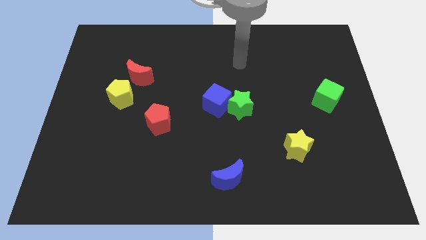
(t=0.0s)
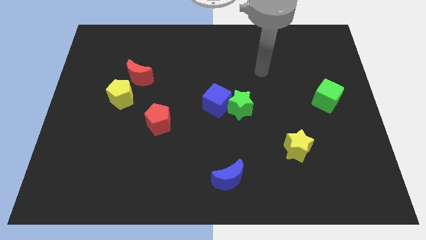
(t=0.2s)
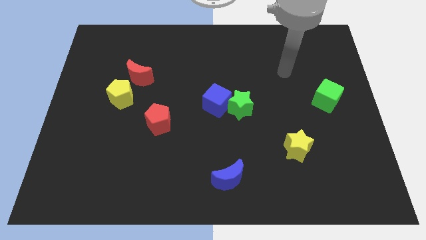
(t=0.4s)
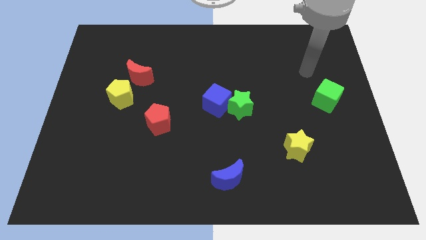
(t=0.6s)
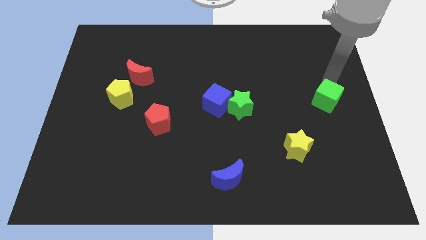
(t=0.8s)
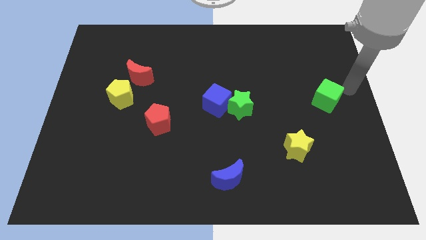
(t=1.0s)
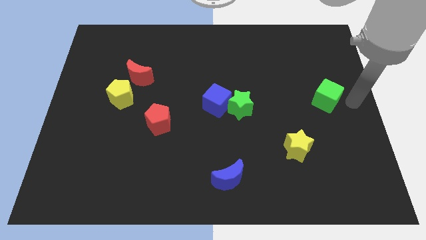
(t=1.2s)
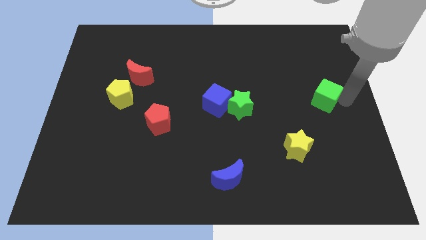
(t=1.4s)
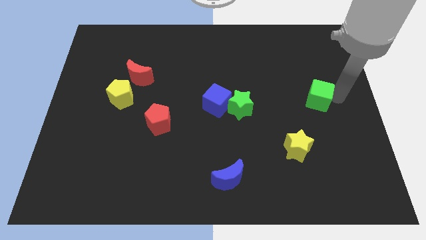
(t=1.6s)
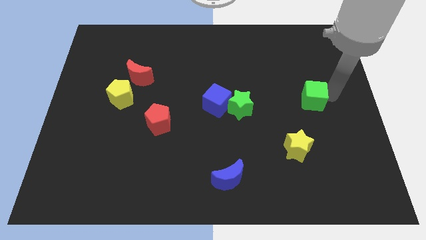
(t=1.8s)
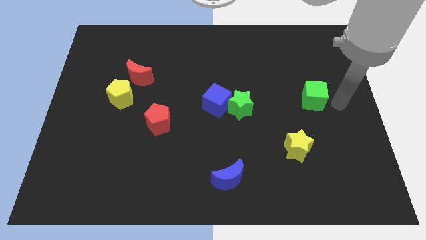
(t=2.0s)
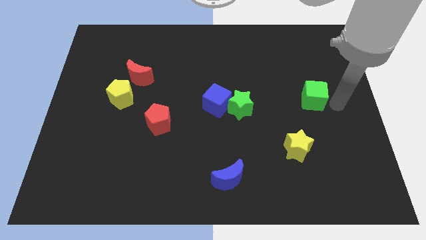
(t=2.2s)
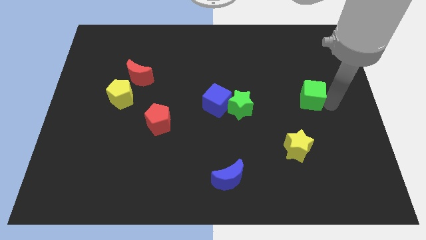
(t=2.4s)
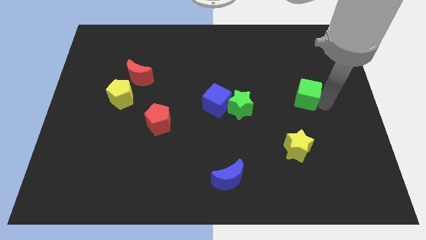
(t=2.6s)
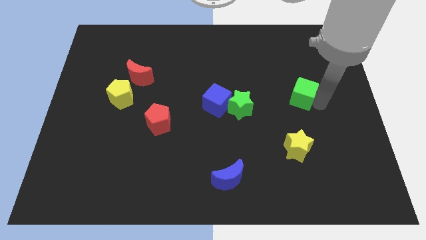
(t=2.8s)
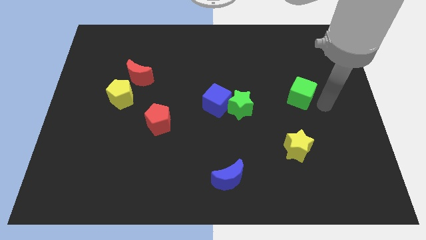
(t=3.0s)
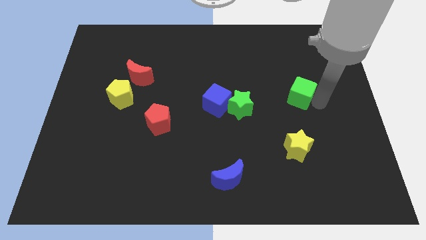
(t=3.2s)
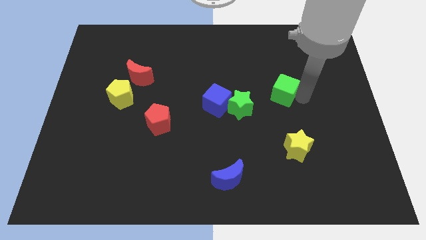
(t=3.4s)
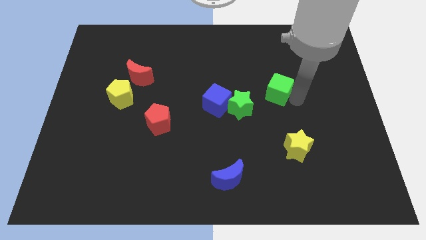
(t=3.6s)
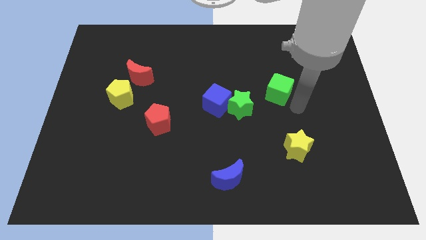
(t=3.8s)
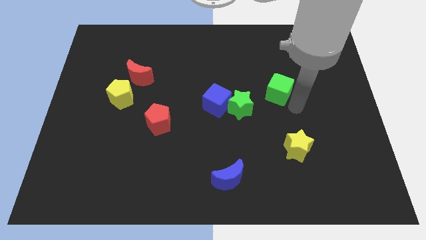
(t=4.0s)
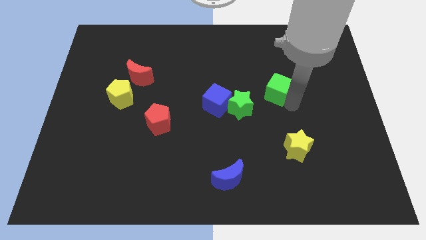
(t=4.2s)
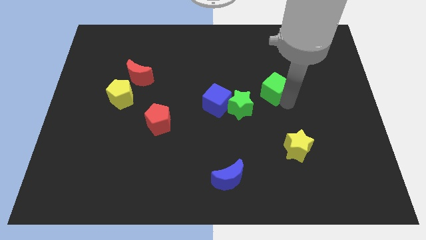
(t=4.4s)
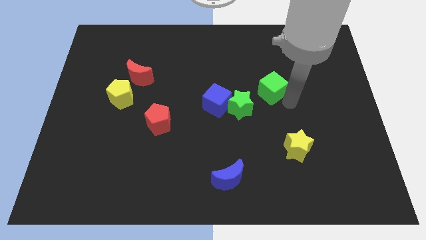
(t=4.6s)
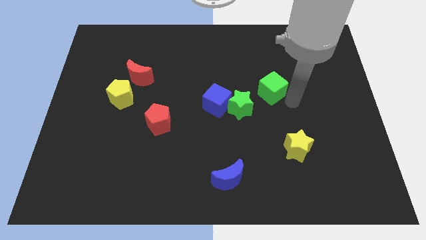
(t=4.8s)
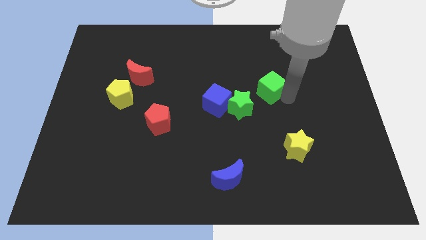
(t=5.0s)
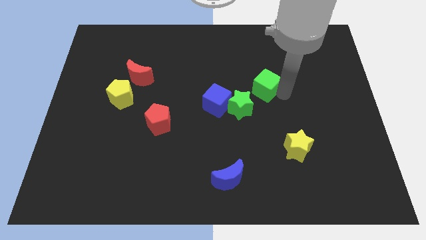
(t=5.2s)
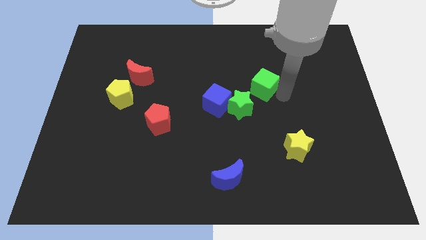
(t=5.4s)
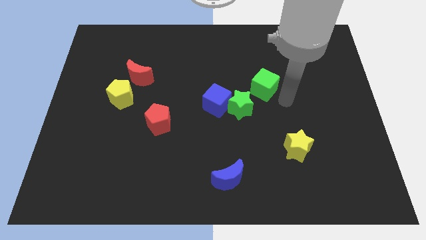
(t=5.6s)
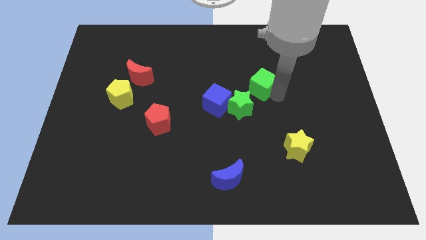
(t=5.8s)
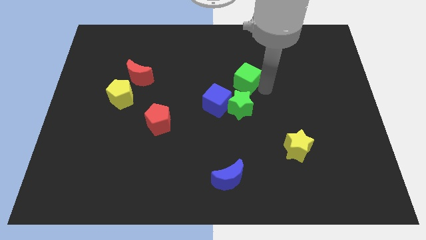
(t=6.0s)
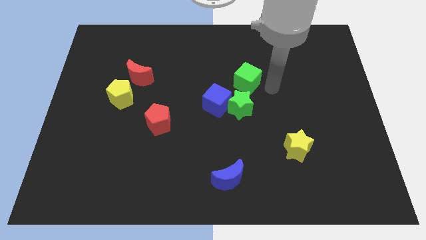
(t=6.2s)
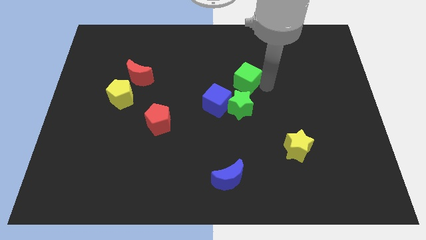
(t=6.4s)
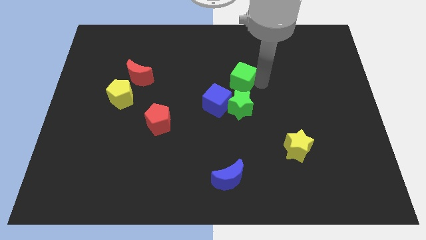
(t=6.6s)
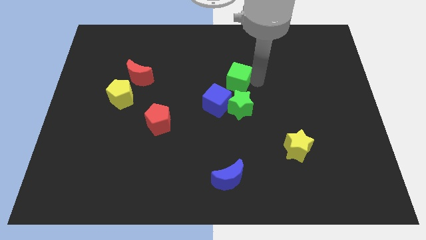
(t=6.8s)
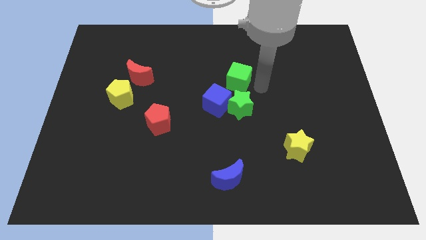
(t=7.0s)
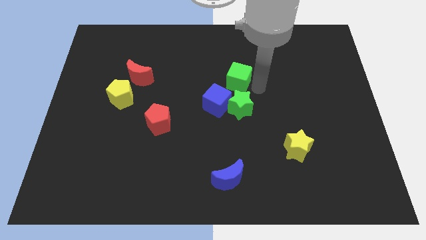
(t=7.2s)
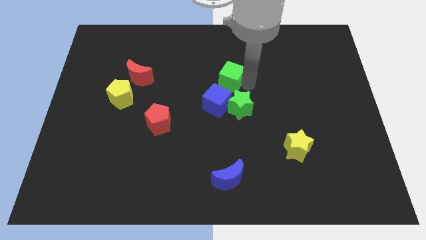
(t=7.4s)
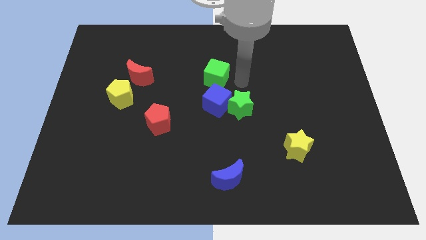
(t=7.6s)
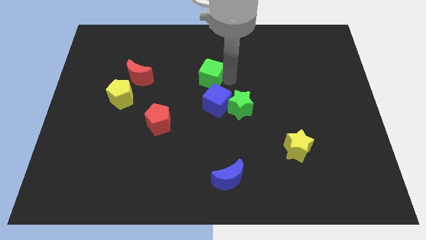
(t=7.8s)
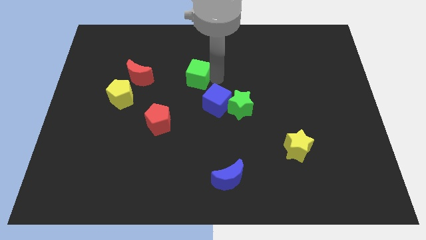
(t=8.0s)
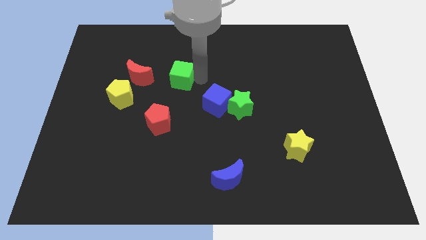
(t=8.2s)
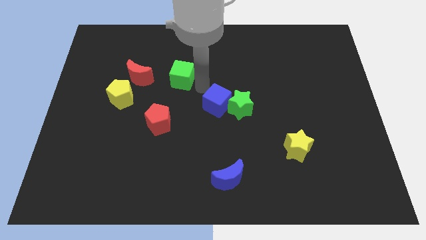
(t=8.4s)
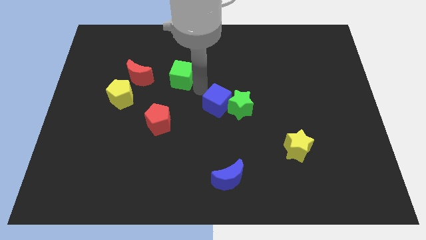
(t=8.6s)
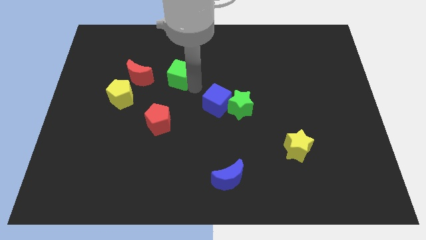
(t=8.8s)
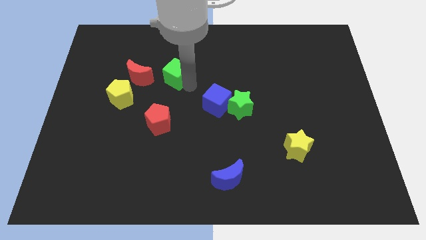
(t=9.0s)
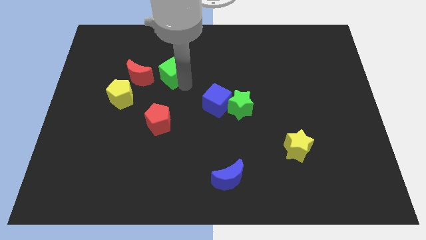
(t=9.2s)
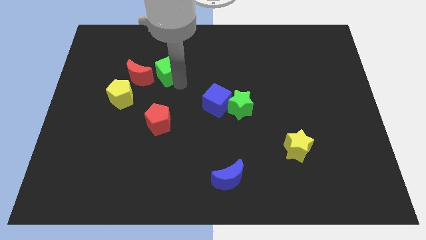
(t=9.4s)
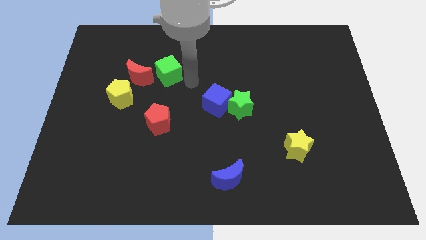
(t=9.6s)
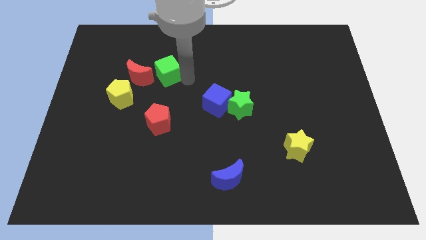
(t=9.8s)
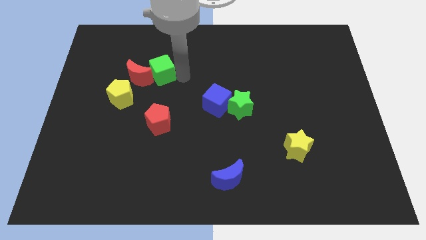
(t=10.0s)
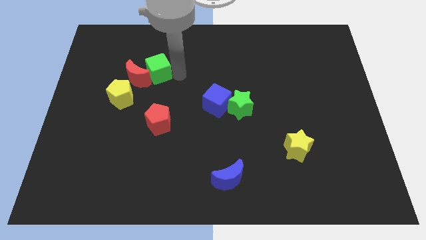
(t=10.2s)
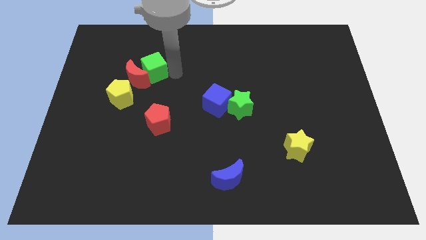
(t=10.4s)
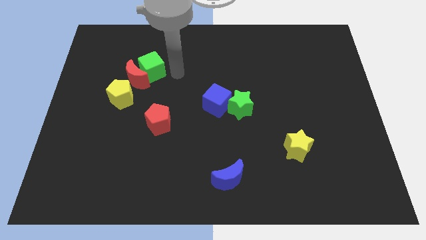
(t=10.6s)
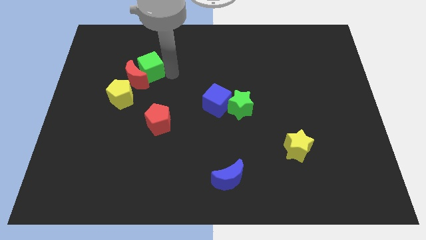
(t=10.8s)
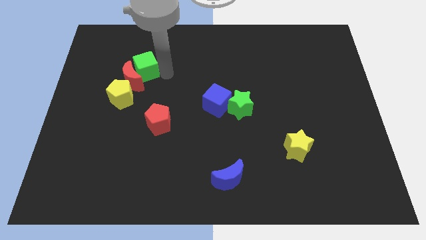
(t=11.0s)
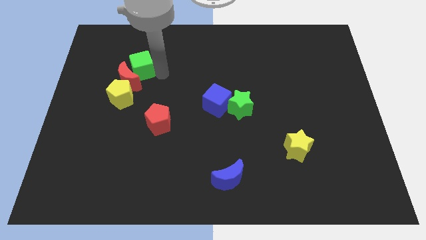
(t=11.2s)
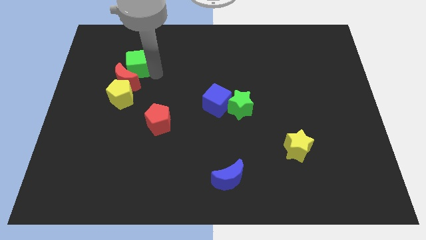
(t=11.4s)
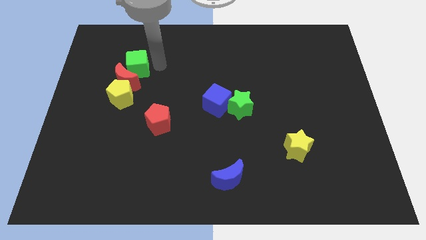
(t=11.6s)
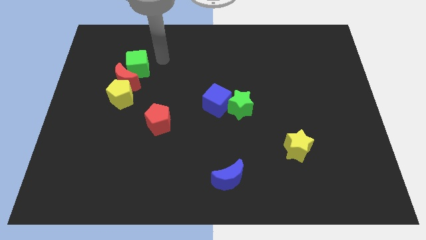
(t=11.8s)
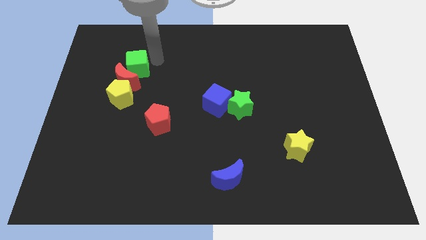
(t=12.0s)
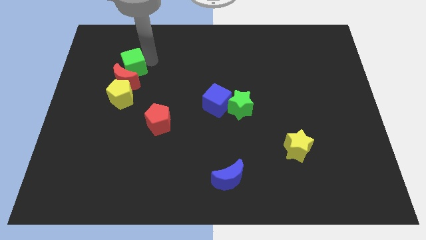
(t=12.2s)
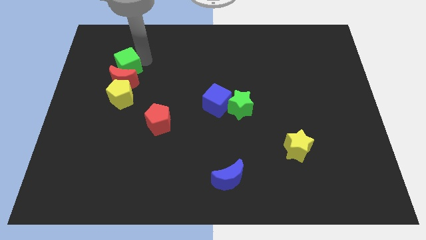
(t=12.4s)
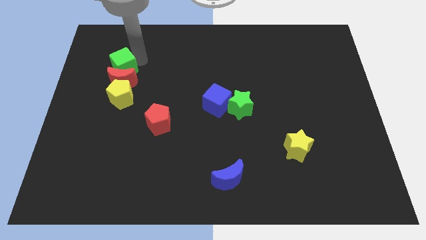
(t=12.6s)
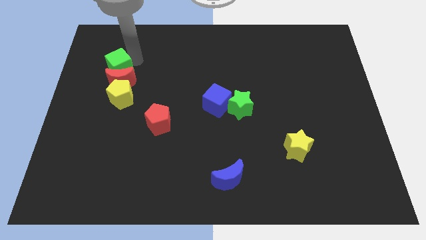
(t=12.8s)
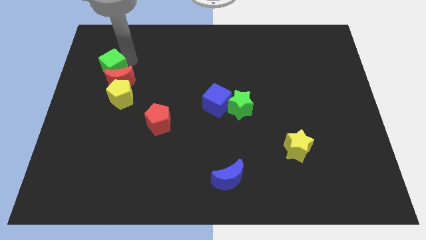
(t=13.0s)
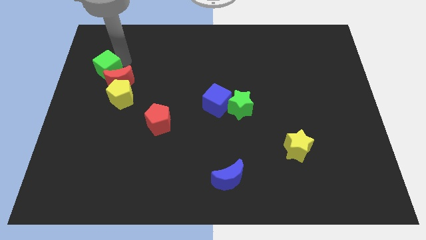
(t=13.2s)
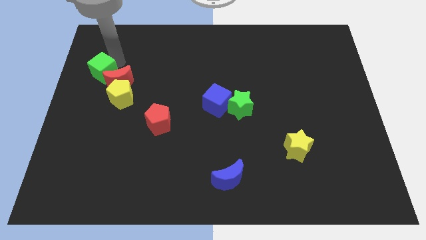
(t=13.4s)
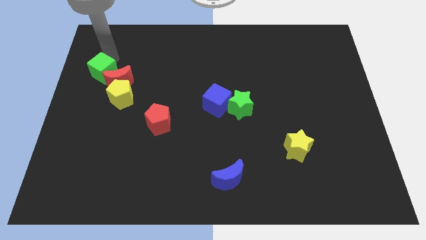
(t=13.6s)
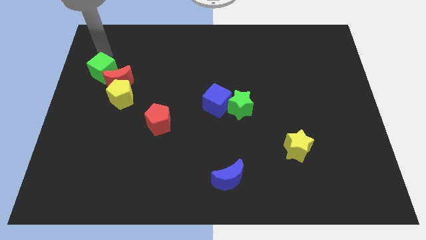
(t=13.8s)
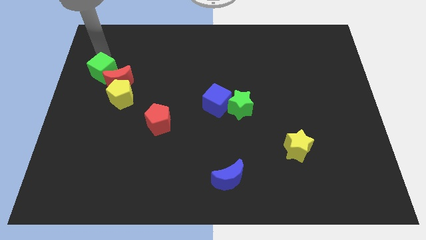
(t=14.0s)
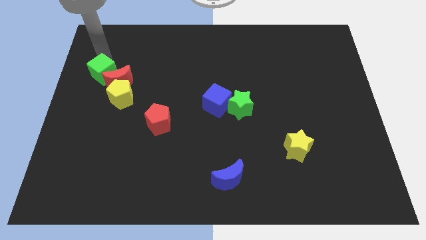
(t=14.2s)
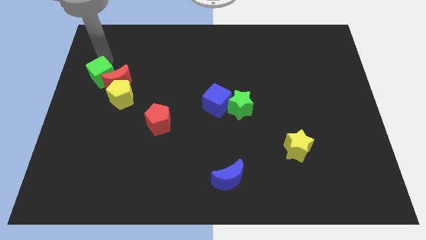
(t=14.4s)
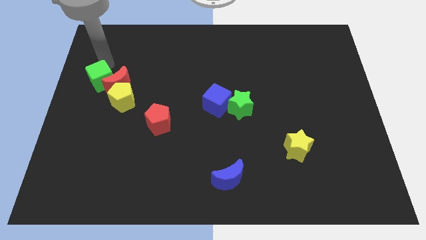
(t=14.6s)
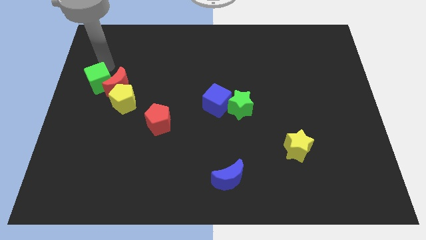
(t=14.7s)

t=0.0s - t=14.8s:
put the green cube to the bottom left side of the red moon
